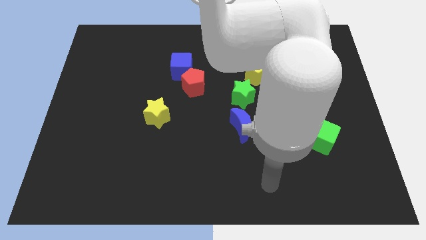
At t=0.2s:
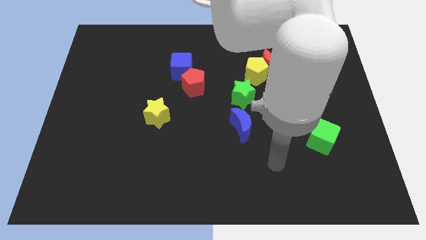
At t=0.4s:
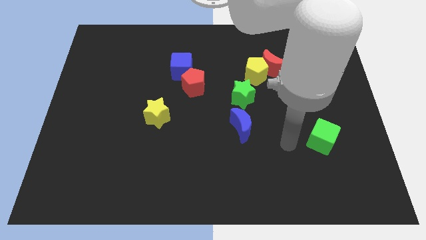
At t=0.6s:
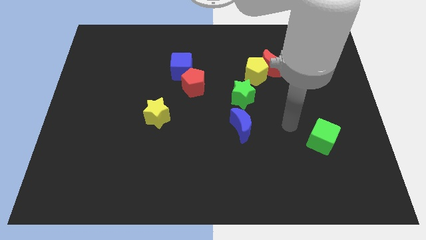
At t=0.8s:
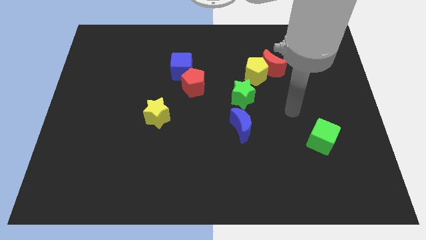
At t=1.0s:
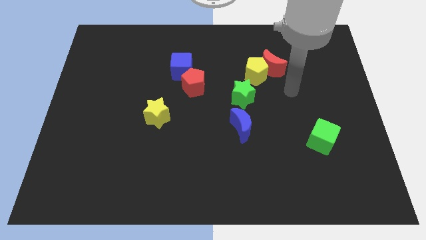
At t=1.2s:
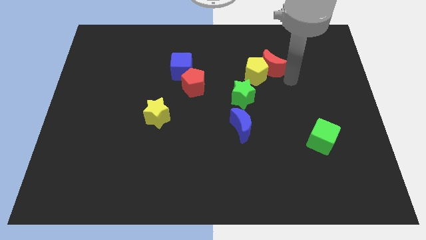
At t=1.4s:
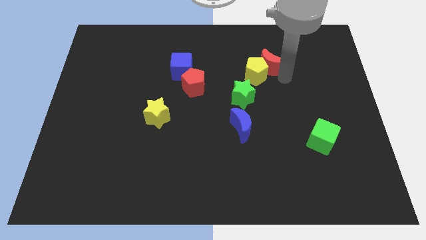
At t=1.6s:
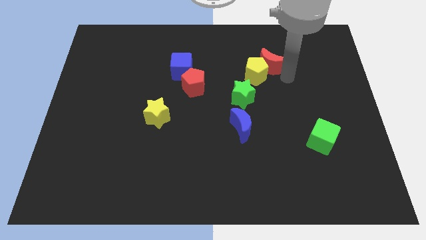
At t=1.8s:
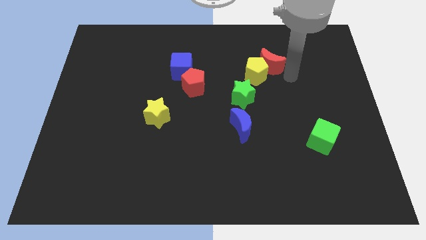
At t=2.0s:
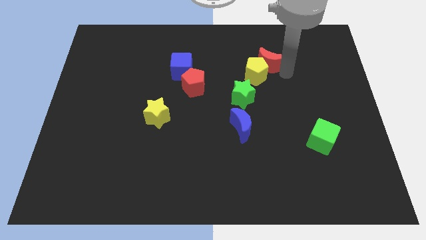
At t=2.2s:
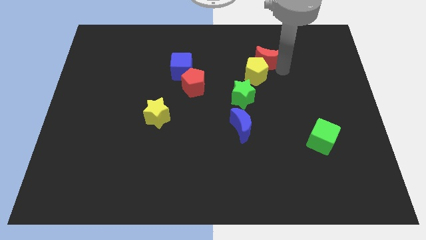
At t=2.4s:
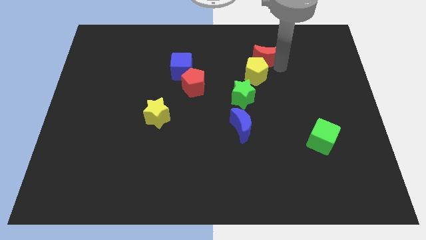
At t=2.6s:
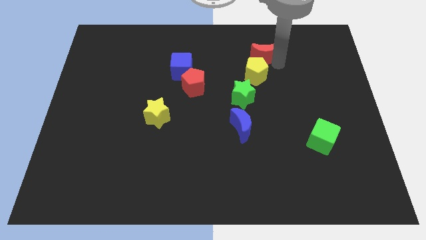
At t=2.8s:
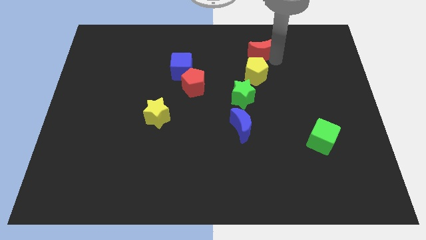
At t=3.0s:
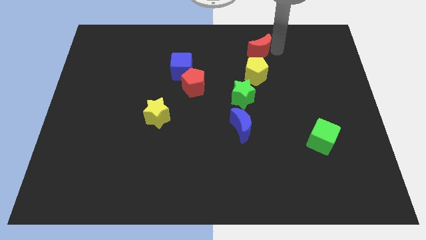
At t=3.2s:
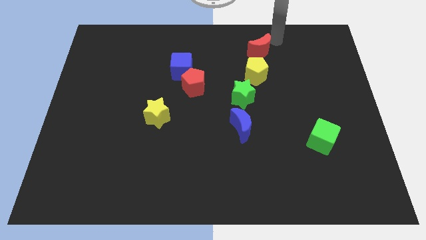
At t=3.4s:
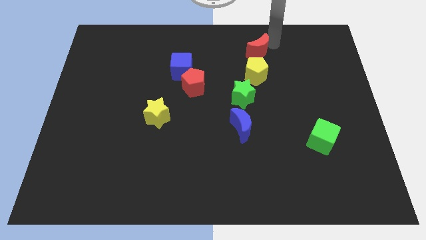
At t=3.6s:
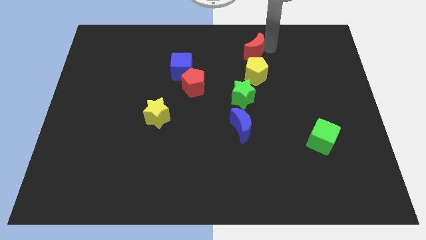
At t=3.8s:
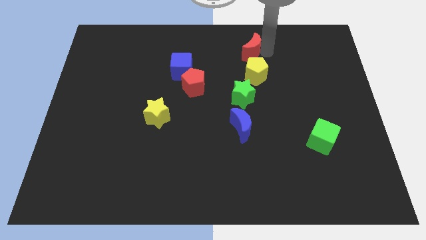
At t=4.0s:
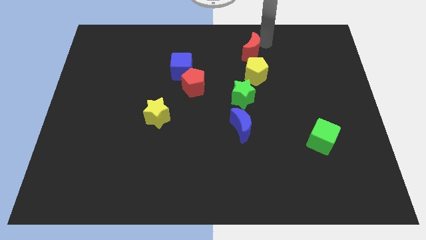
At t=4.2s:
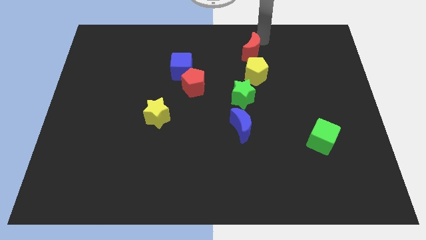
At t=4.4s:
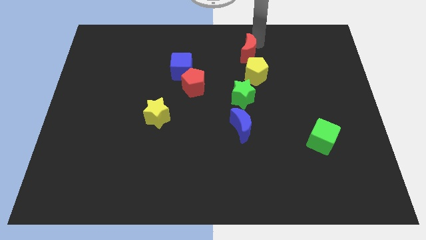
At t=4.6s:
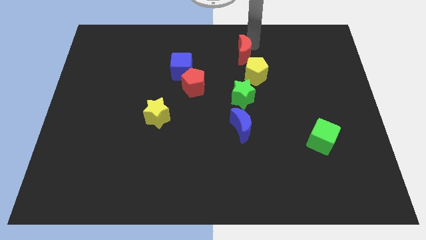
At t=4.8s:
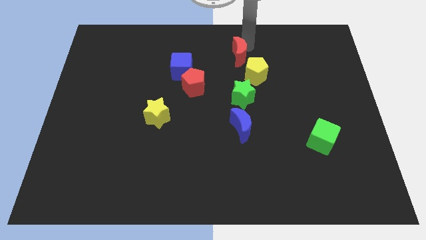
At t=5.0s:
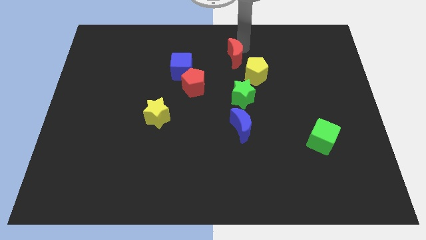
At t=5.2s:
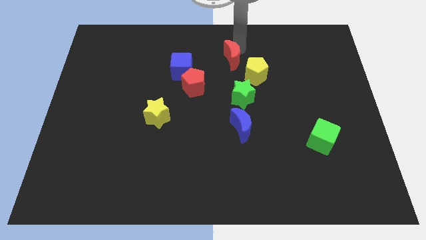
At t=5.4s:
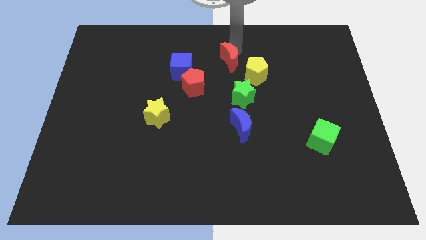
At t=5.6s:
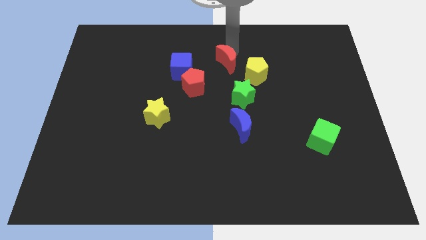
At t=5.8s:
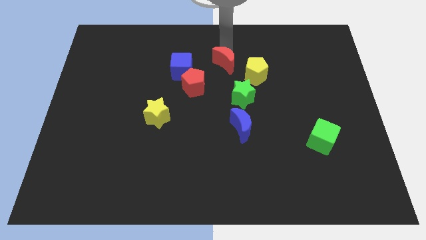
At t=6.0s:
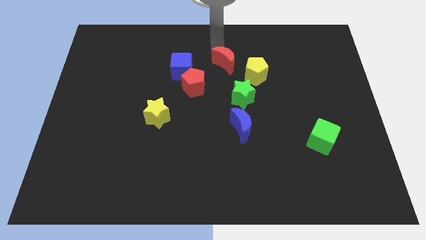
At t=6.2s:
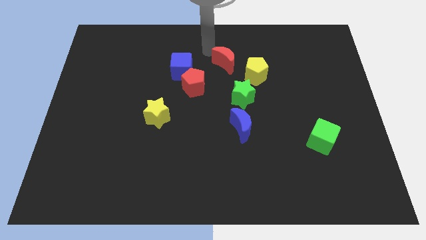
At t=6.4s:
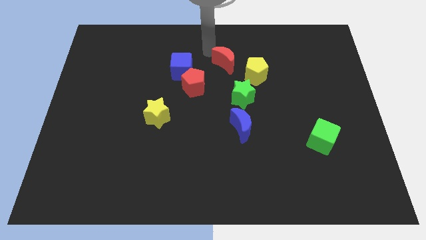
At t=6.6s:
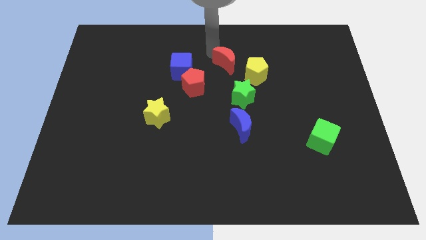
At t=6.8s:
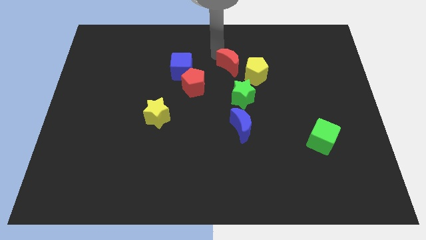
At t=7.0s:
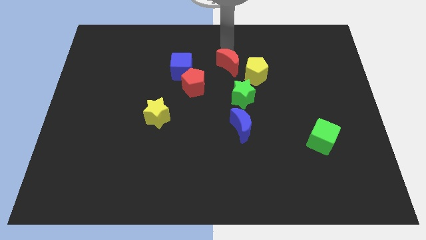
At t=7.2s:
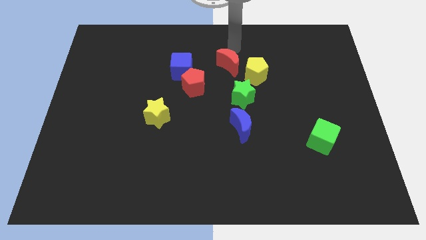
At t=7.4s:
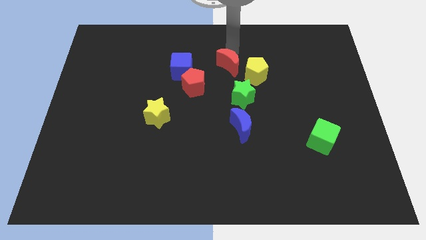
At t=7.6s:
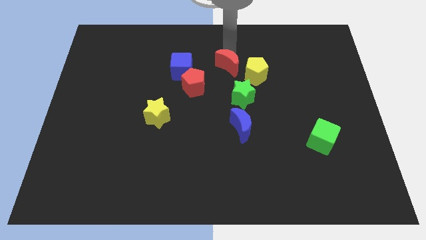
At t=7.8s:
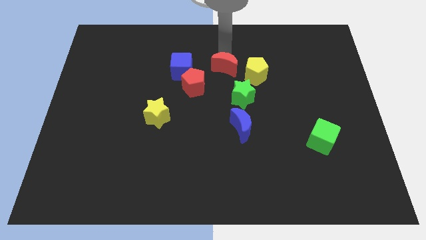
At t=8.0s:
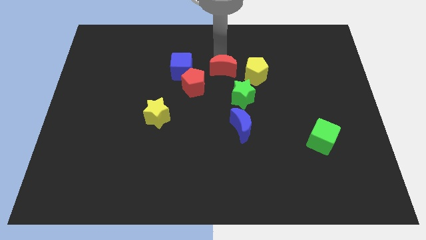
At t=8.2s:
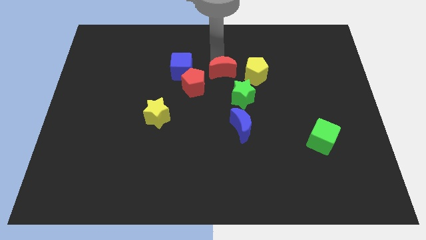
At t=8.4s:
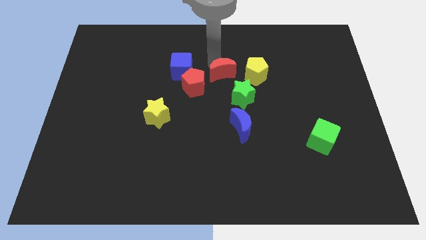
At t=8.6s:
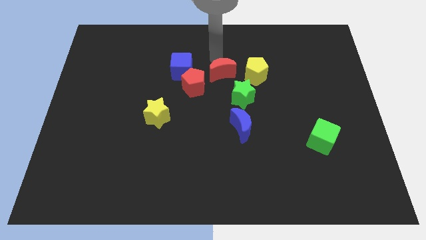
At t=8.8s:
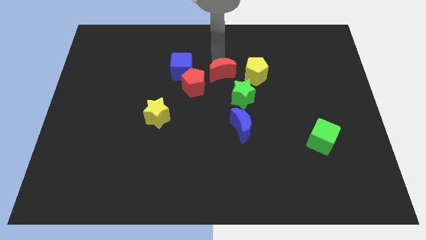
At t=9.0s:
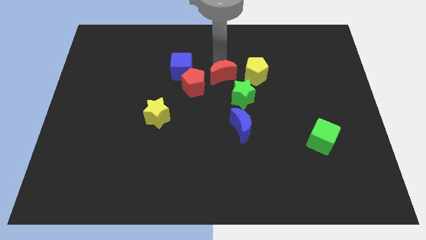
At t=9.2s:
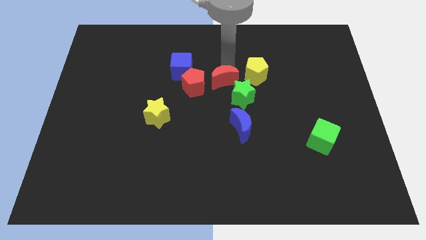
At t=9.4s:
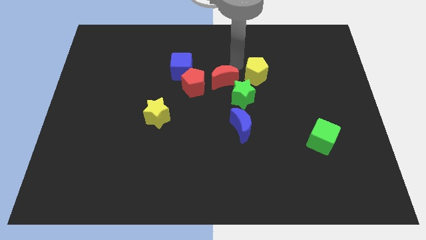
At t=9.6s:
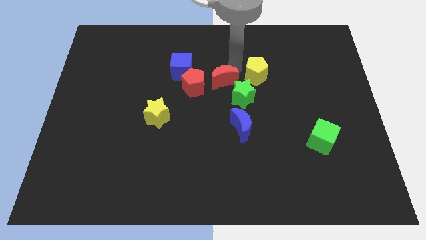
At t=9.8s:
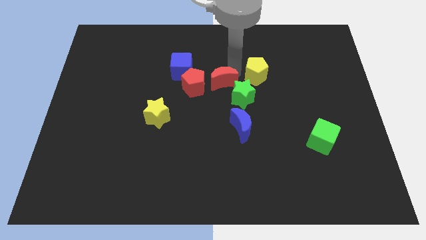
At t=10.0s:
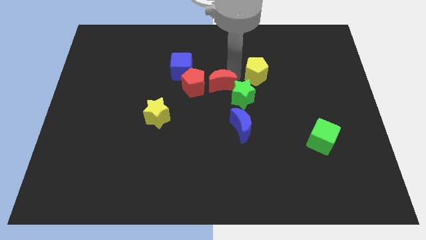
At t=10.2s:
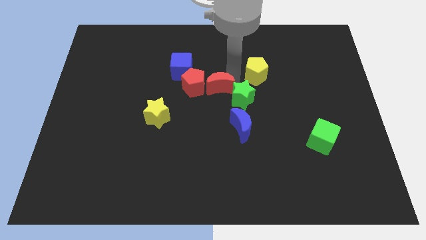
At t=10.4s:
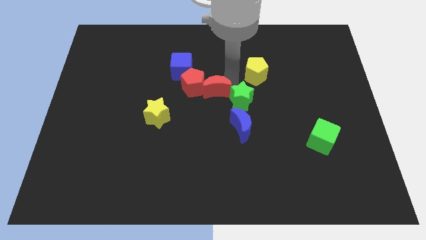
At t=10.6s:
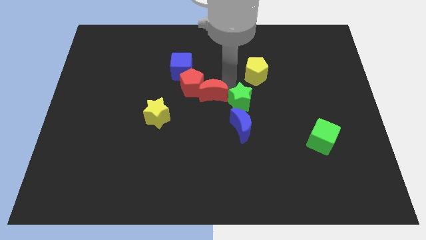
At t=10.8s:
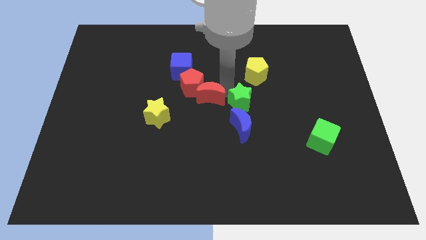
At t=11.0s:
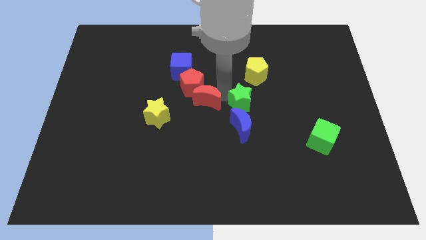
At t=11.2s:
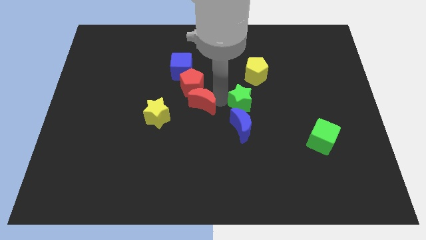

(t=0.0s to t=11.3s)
move the red moon downwards and to the left diagonally

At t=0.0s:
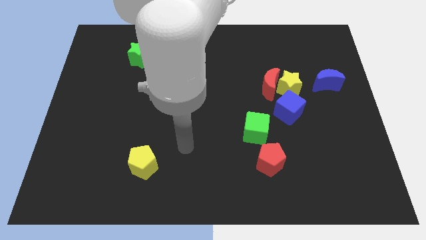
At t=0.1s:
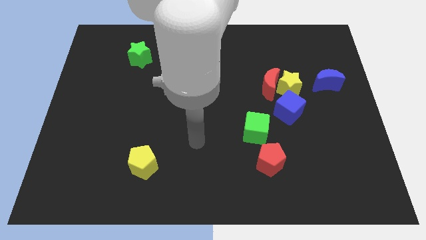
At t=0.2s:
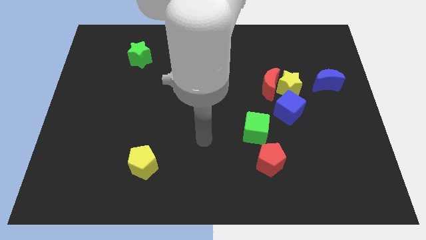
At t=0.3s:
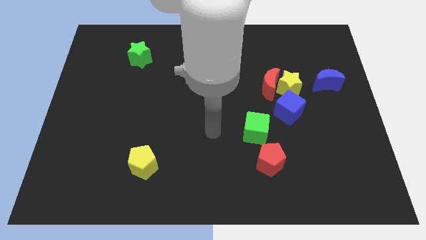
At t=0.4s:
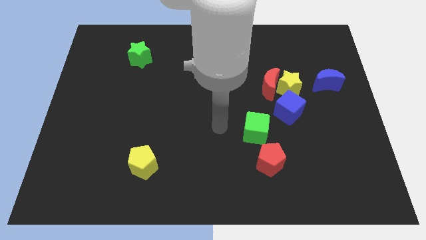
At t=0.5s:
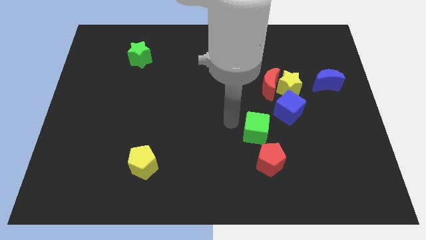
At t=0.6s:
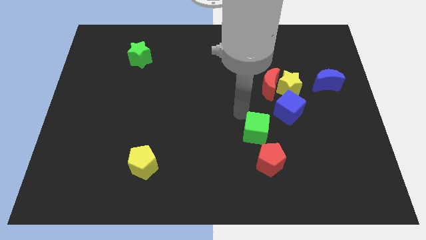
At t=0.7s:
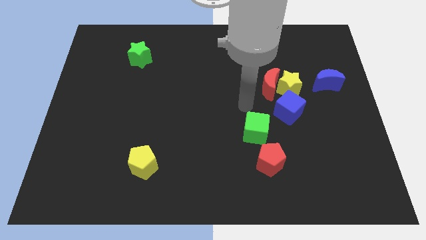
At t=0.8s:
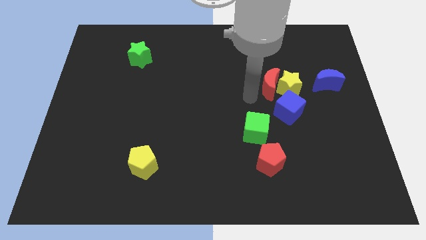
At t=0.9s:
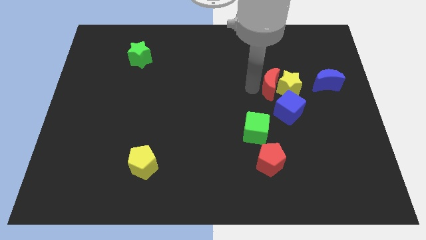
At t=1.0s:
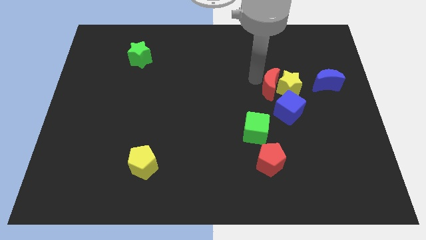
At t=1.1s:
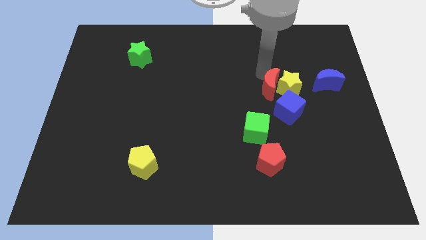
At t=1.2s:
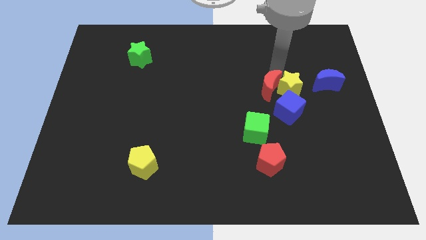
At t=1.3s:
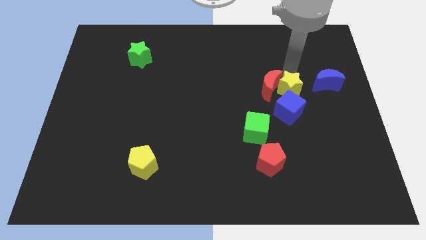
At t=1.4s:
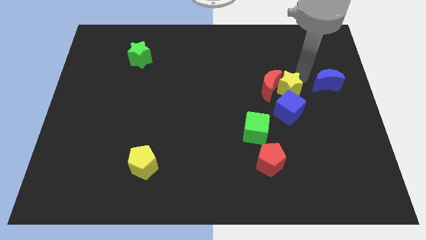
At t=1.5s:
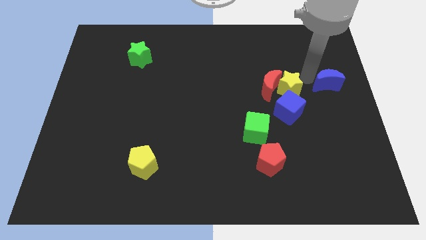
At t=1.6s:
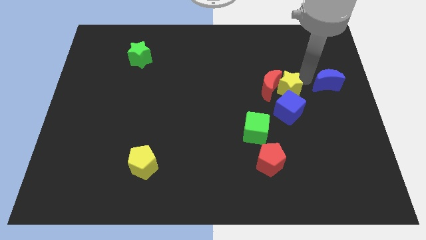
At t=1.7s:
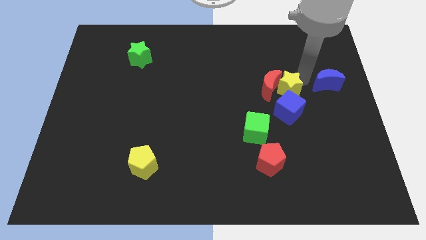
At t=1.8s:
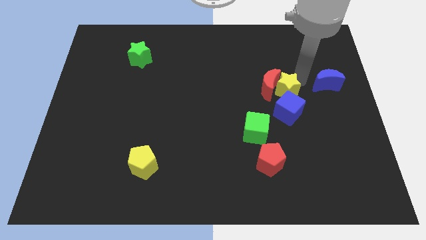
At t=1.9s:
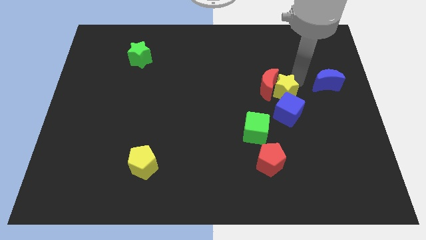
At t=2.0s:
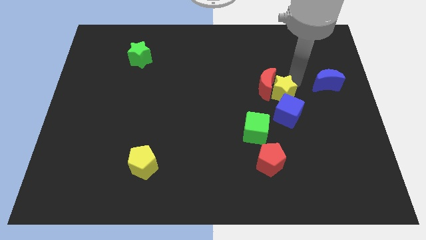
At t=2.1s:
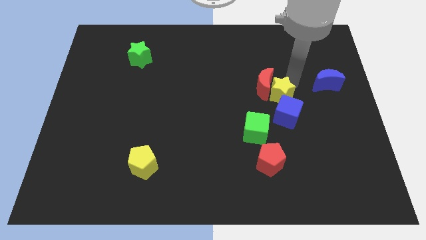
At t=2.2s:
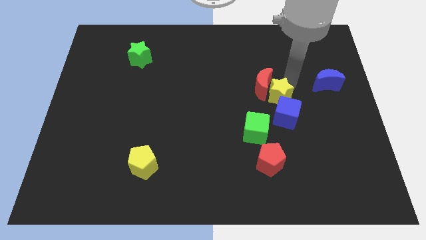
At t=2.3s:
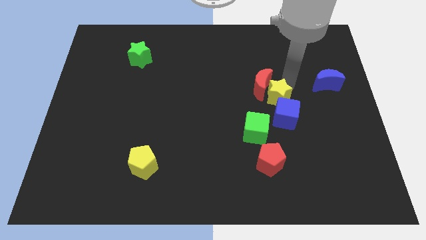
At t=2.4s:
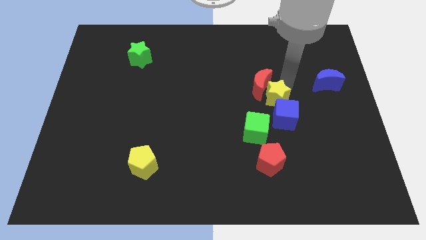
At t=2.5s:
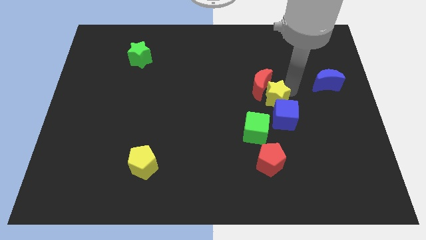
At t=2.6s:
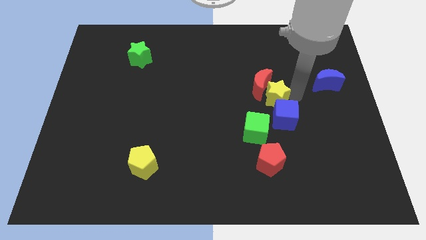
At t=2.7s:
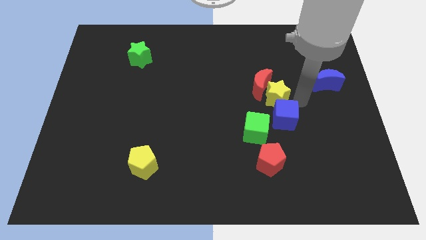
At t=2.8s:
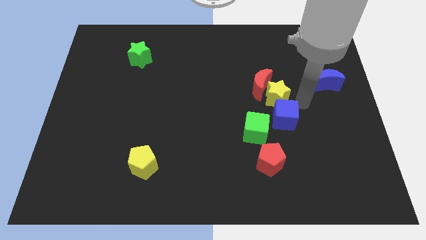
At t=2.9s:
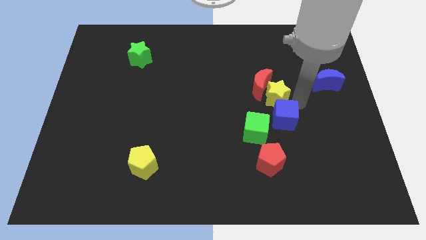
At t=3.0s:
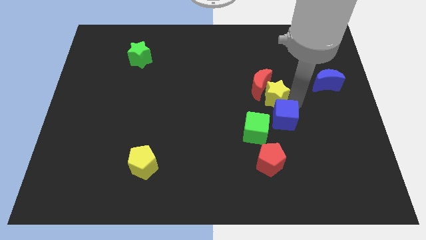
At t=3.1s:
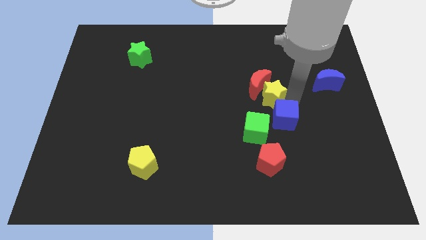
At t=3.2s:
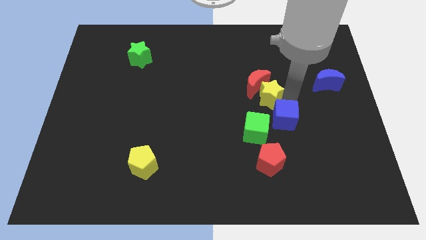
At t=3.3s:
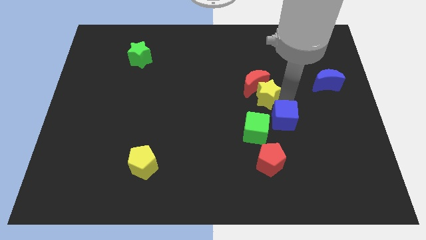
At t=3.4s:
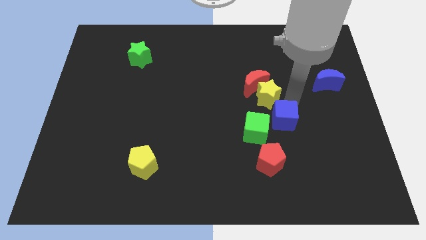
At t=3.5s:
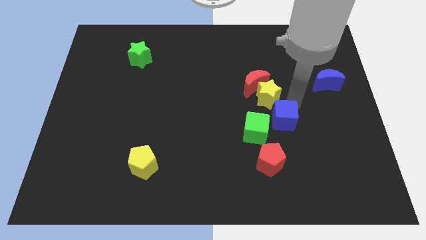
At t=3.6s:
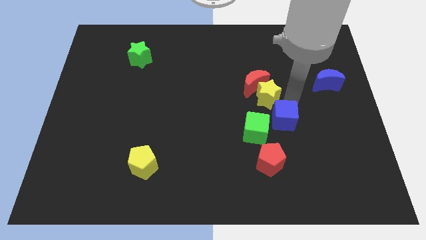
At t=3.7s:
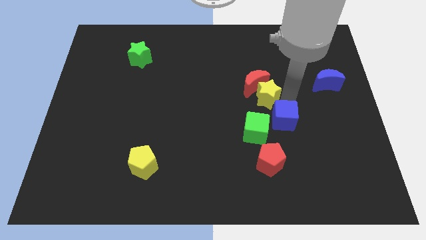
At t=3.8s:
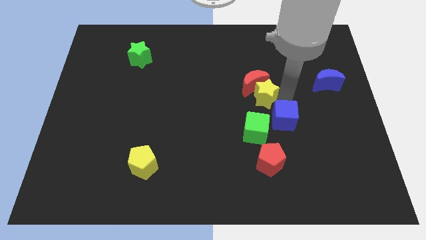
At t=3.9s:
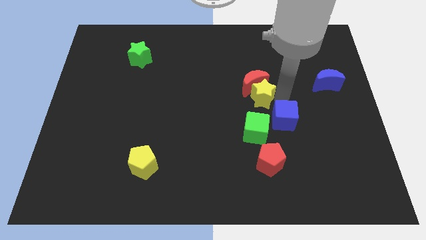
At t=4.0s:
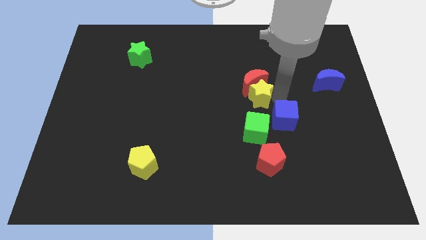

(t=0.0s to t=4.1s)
move the yellow star left slightly
